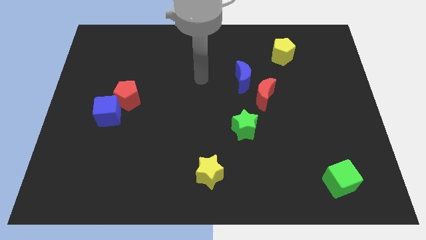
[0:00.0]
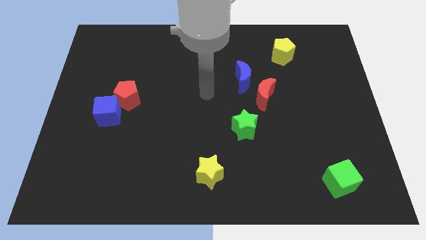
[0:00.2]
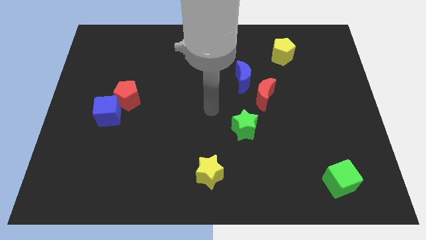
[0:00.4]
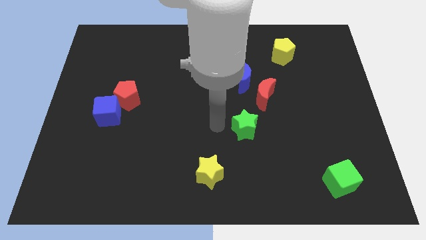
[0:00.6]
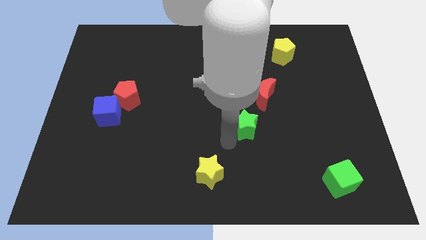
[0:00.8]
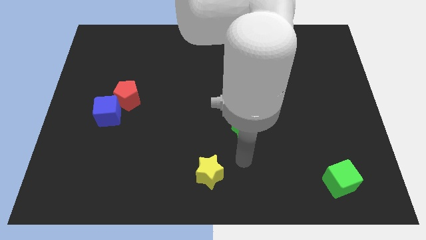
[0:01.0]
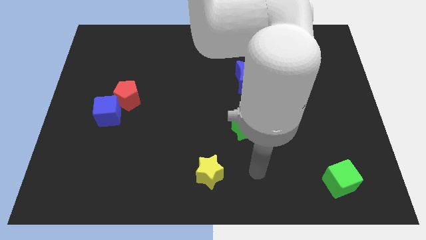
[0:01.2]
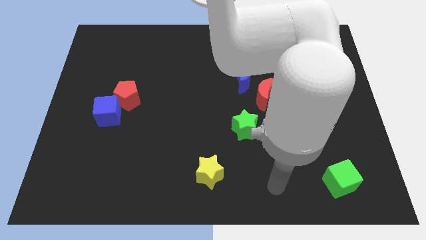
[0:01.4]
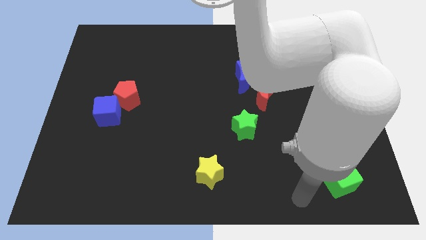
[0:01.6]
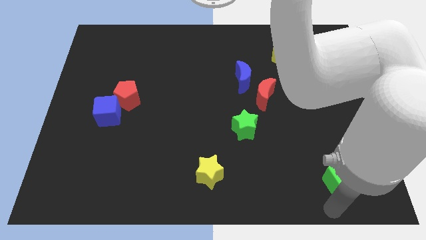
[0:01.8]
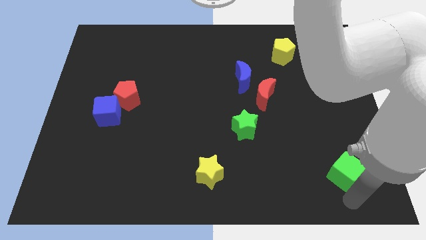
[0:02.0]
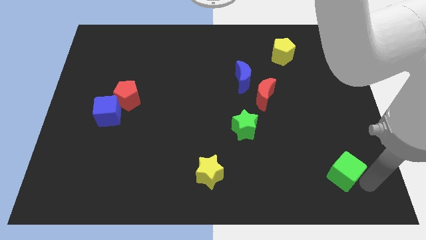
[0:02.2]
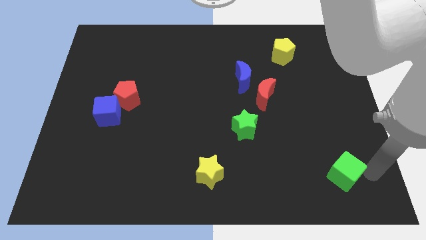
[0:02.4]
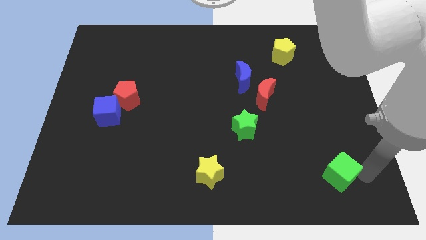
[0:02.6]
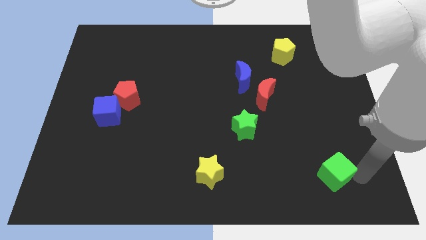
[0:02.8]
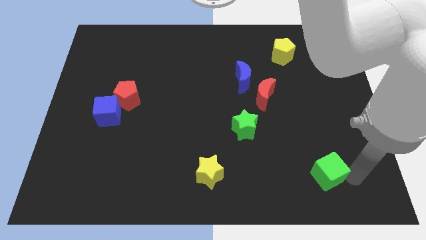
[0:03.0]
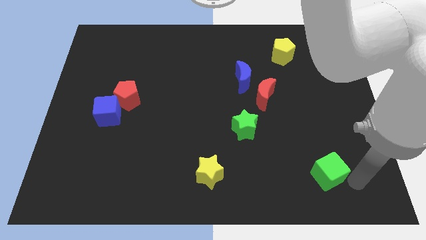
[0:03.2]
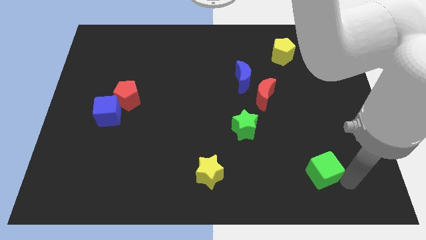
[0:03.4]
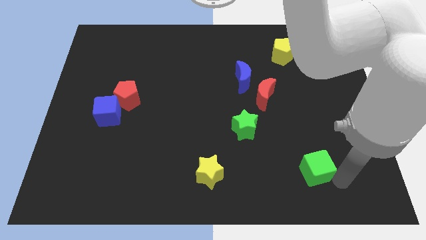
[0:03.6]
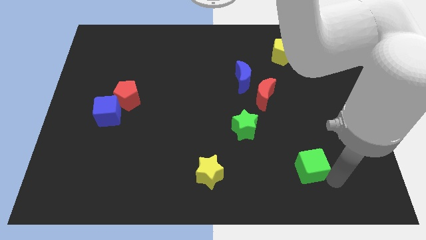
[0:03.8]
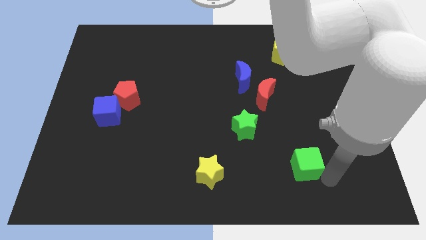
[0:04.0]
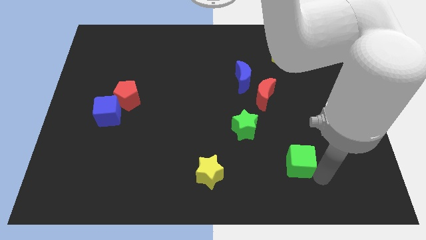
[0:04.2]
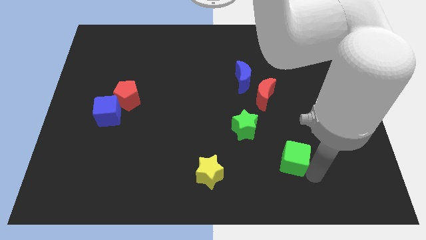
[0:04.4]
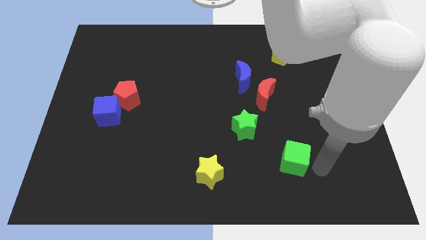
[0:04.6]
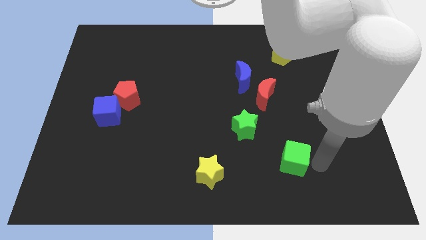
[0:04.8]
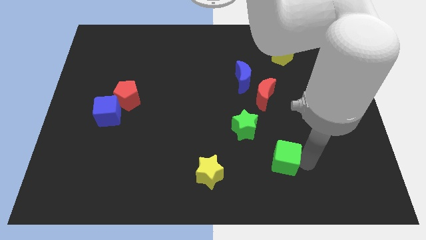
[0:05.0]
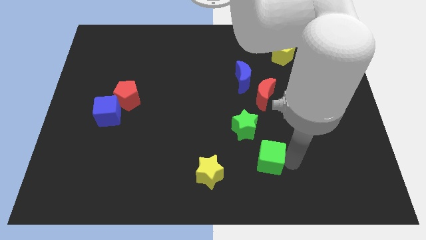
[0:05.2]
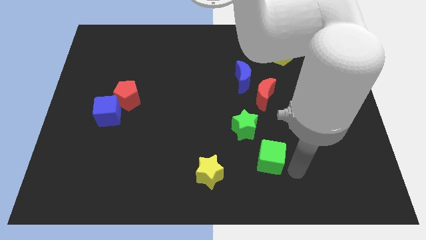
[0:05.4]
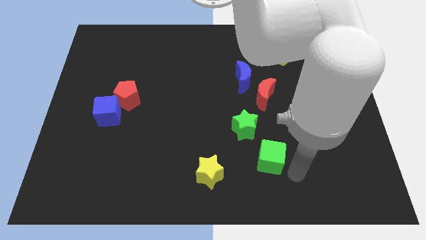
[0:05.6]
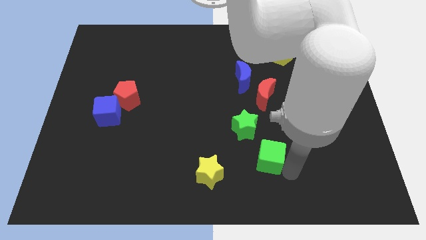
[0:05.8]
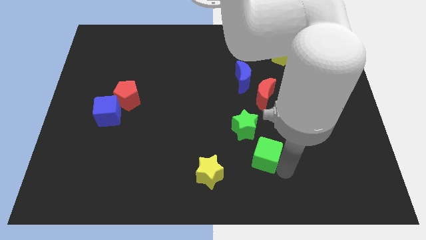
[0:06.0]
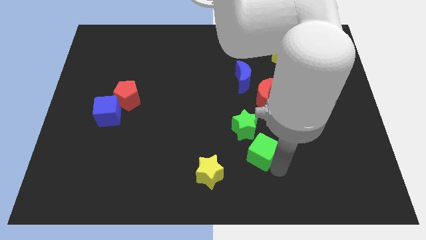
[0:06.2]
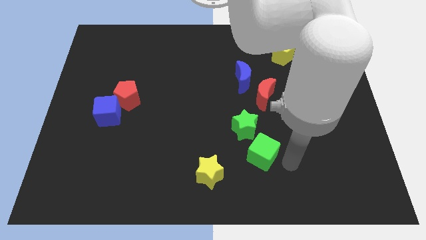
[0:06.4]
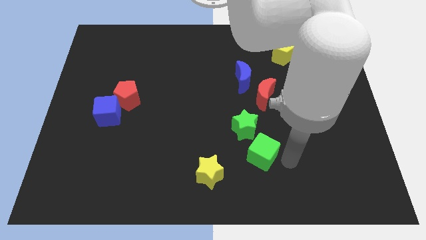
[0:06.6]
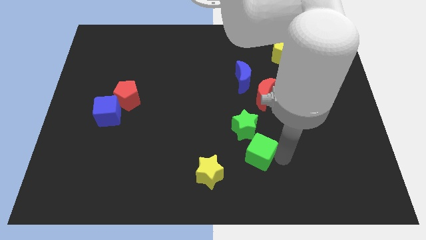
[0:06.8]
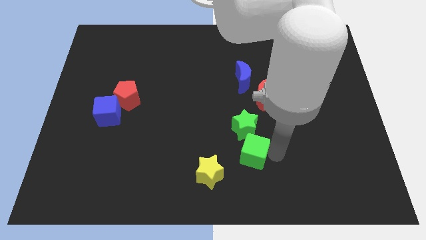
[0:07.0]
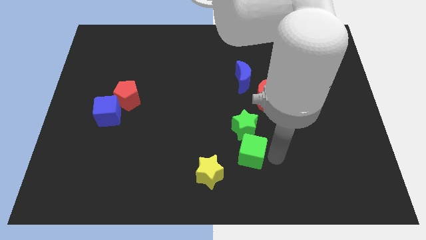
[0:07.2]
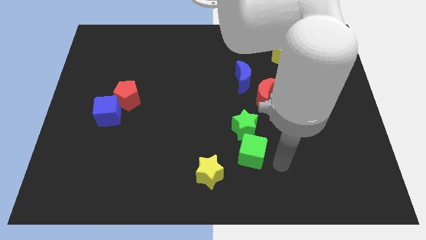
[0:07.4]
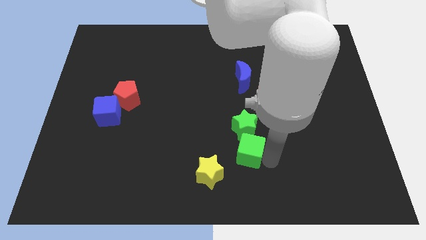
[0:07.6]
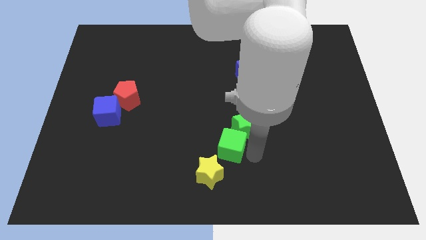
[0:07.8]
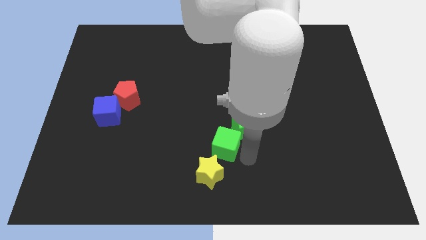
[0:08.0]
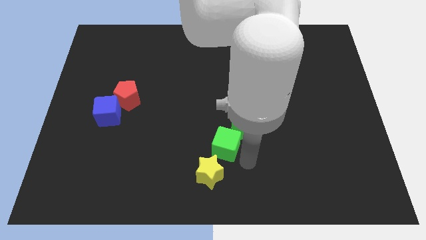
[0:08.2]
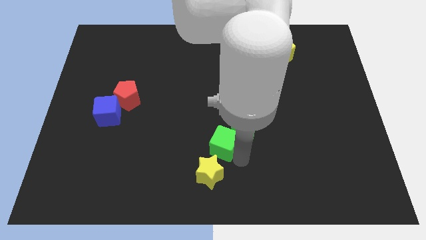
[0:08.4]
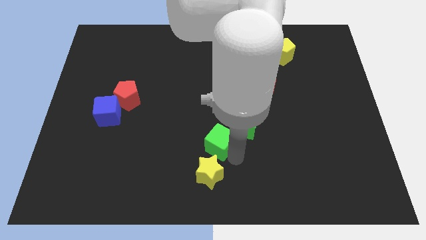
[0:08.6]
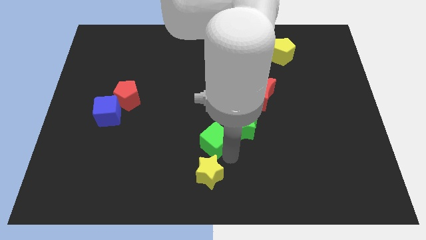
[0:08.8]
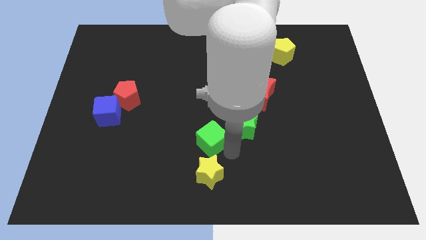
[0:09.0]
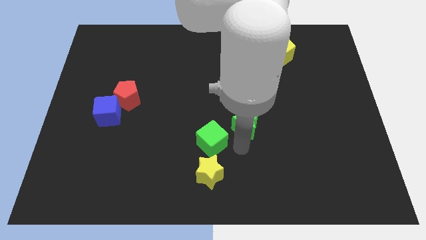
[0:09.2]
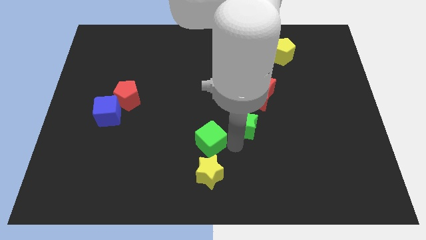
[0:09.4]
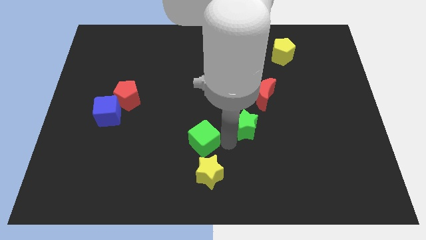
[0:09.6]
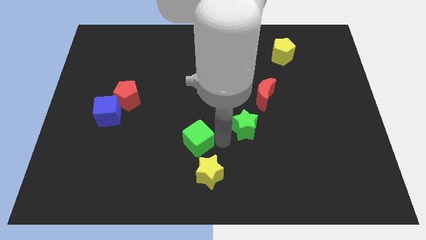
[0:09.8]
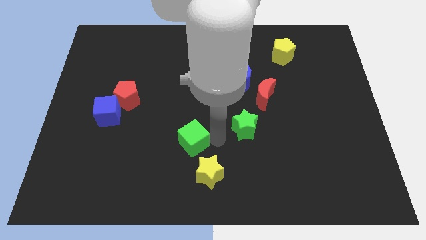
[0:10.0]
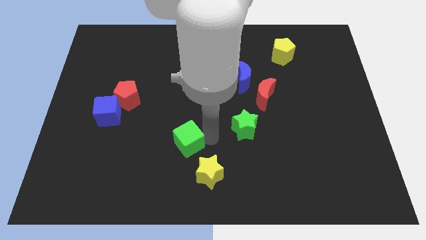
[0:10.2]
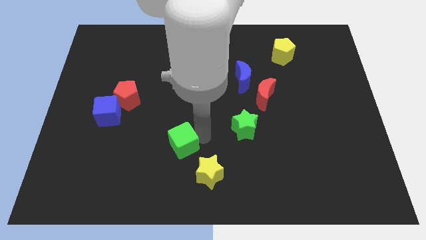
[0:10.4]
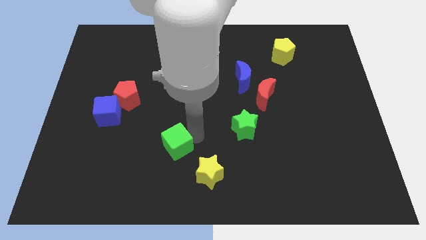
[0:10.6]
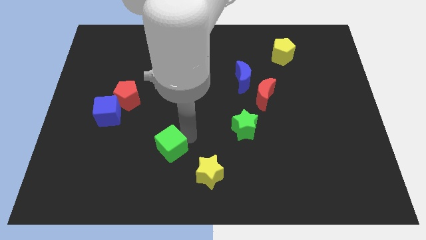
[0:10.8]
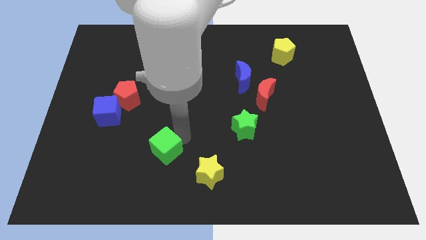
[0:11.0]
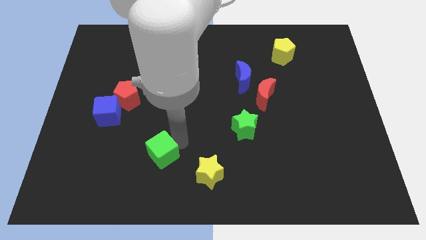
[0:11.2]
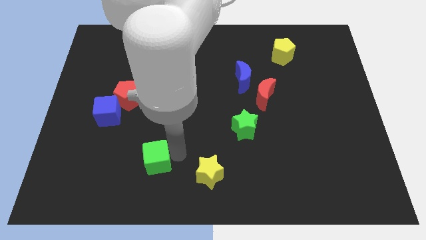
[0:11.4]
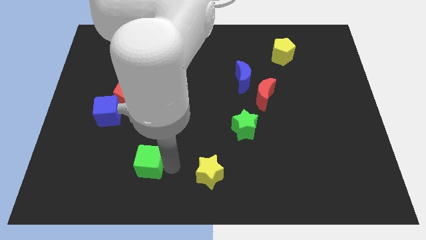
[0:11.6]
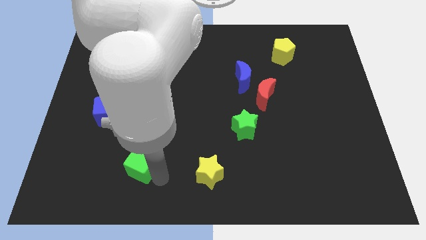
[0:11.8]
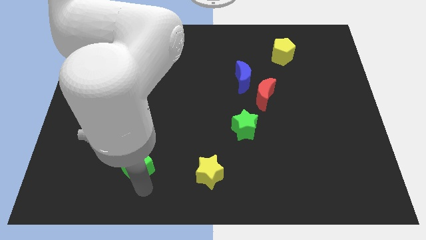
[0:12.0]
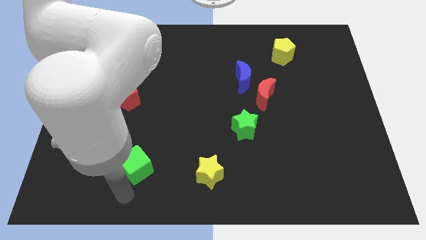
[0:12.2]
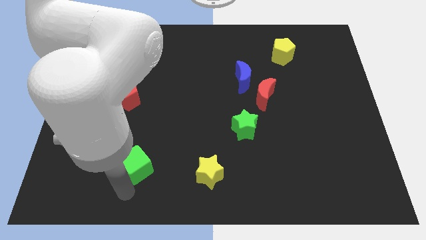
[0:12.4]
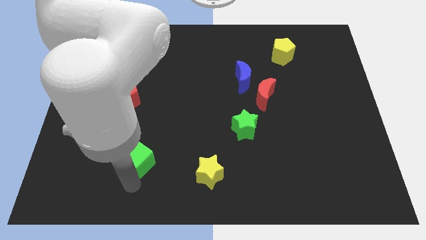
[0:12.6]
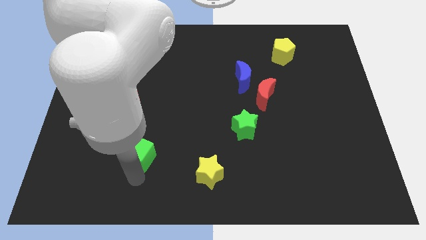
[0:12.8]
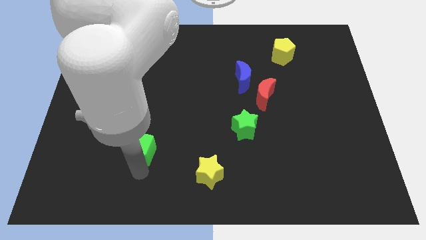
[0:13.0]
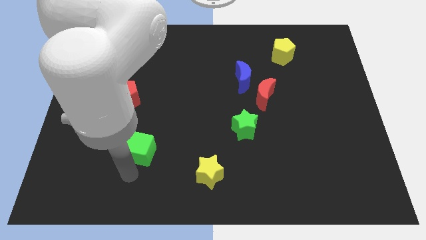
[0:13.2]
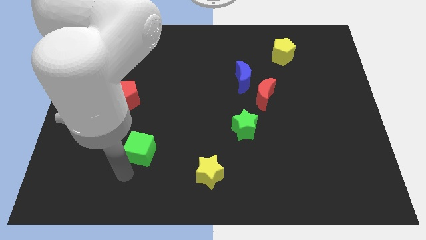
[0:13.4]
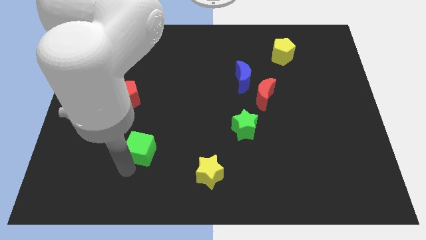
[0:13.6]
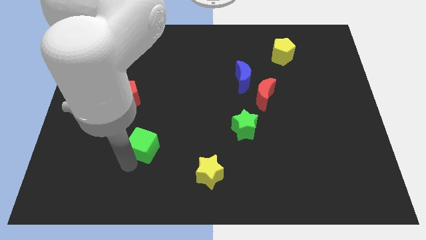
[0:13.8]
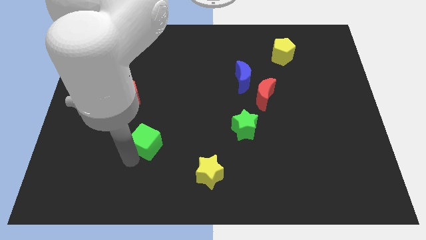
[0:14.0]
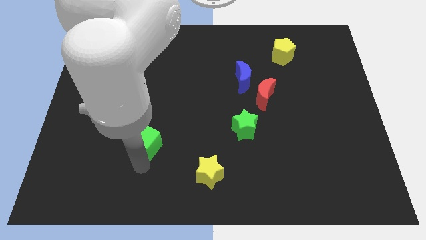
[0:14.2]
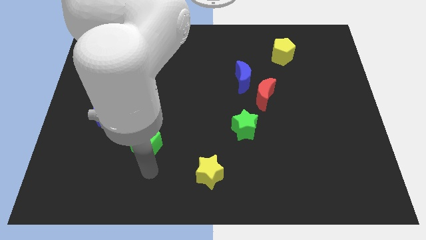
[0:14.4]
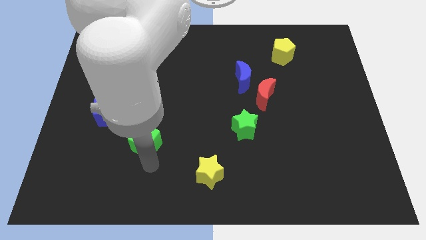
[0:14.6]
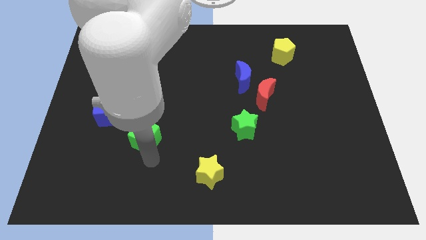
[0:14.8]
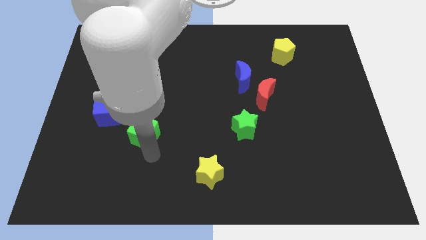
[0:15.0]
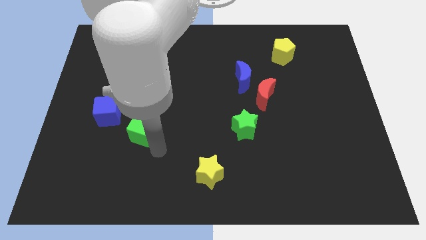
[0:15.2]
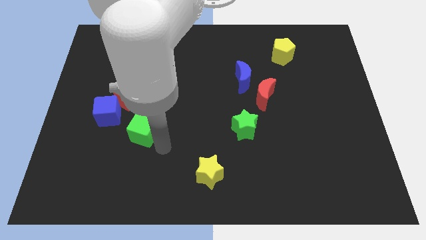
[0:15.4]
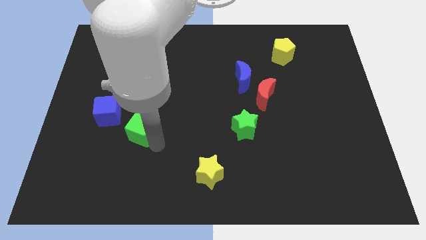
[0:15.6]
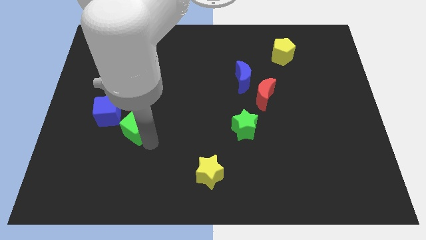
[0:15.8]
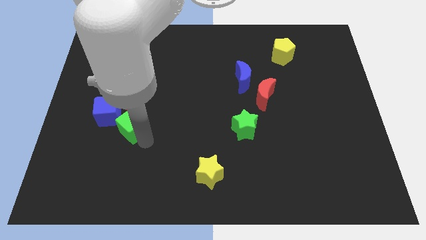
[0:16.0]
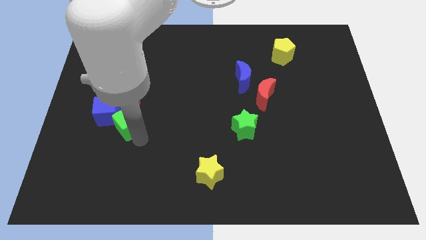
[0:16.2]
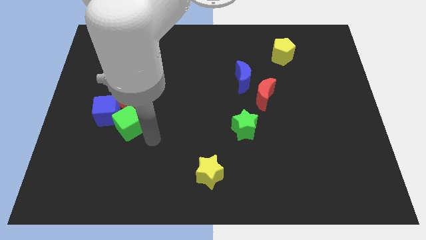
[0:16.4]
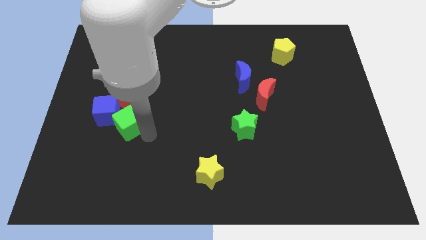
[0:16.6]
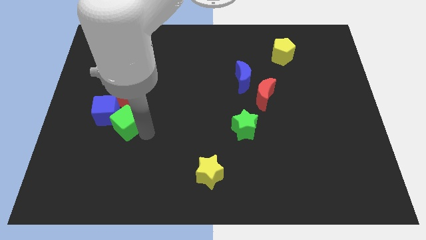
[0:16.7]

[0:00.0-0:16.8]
put the green cube towards the blue cube
